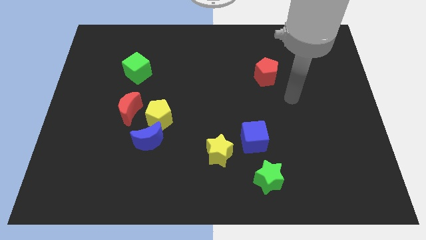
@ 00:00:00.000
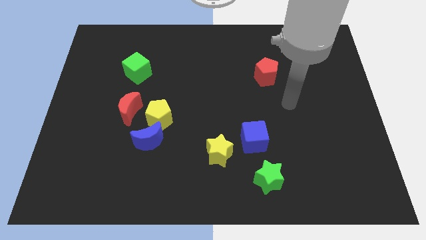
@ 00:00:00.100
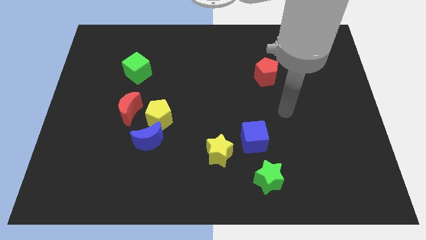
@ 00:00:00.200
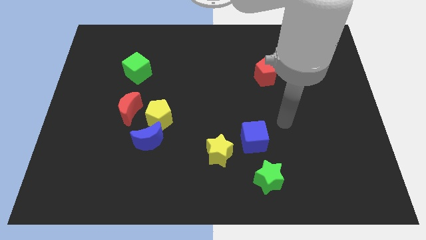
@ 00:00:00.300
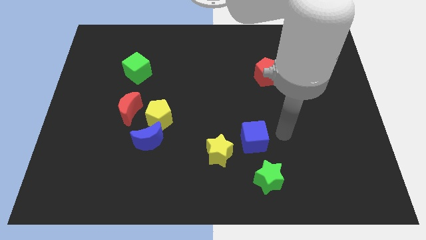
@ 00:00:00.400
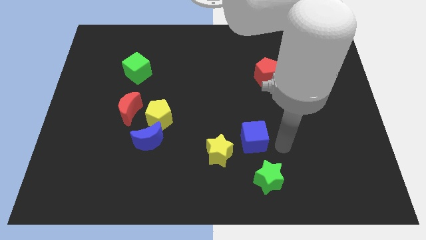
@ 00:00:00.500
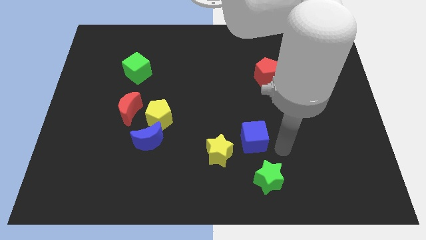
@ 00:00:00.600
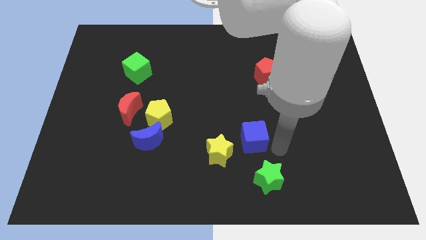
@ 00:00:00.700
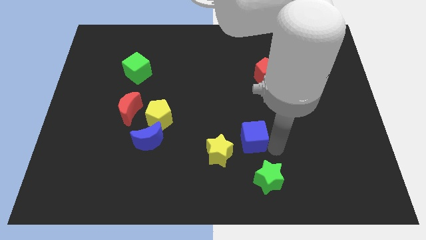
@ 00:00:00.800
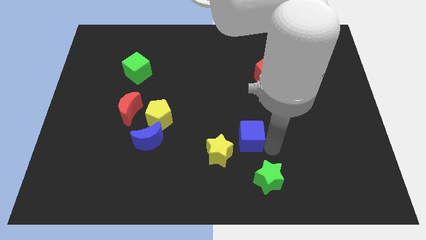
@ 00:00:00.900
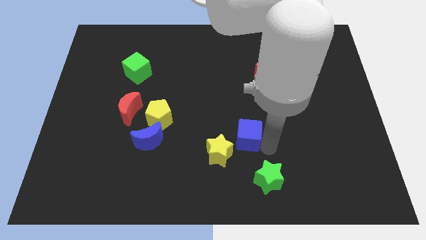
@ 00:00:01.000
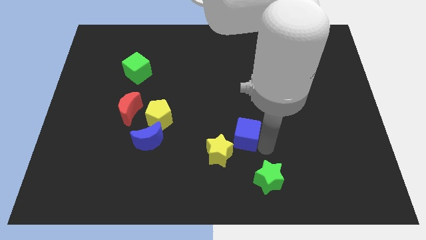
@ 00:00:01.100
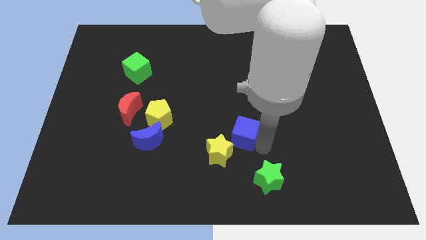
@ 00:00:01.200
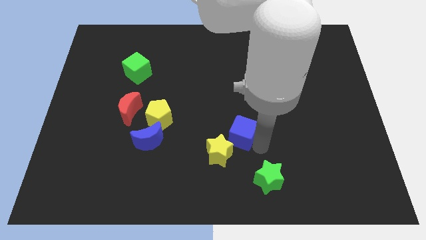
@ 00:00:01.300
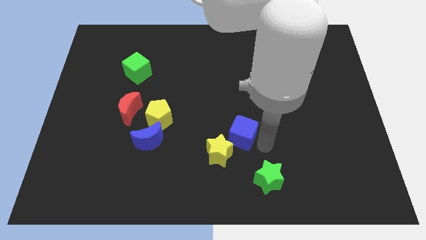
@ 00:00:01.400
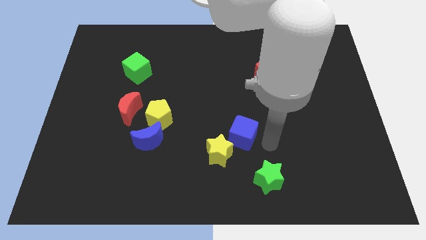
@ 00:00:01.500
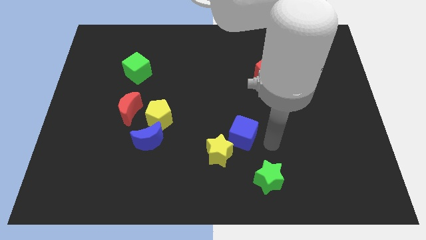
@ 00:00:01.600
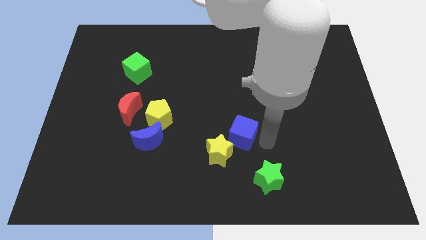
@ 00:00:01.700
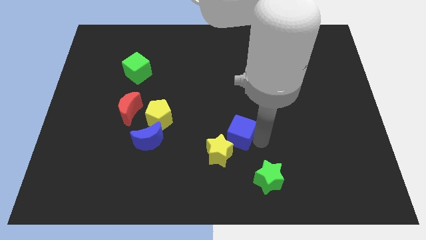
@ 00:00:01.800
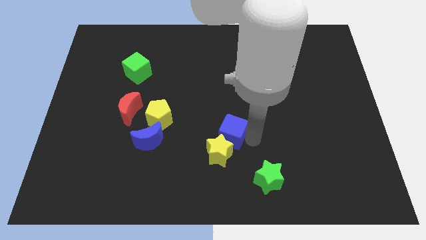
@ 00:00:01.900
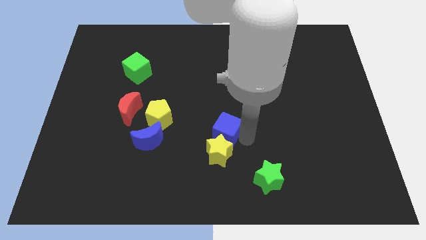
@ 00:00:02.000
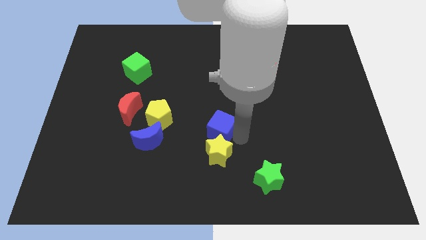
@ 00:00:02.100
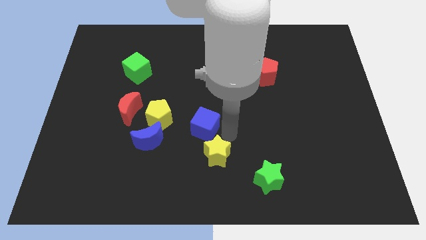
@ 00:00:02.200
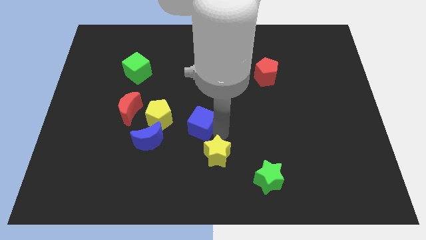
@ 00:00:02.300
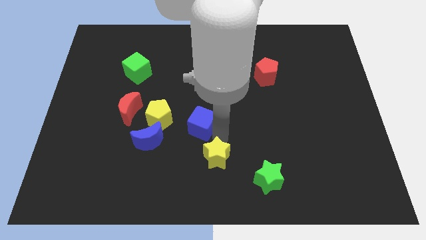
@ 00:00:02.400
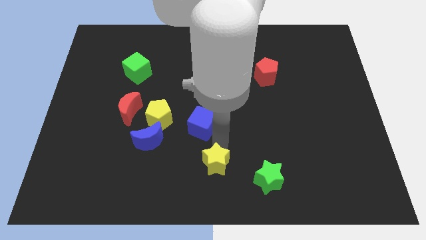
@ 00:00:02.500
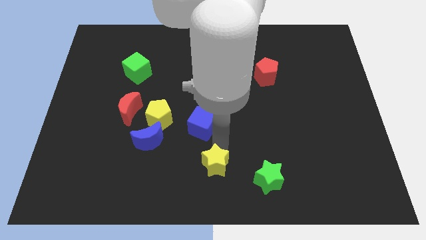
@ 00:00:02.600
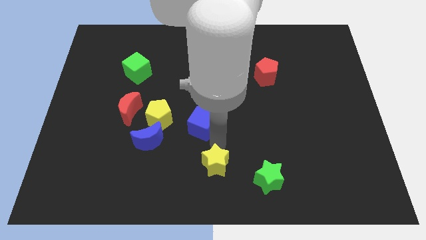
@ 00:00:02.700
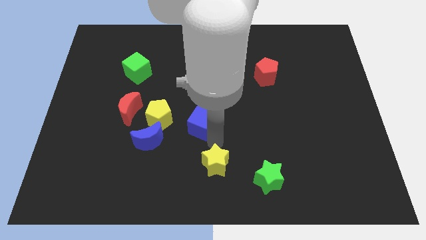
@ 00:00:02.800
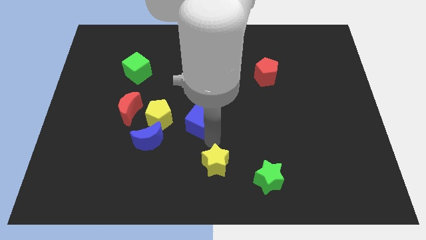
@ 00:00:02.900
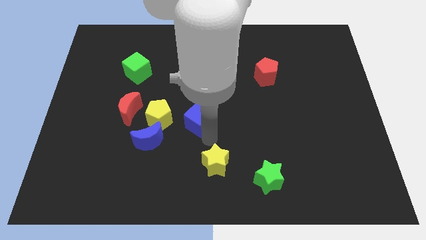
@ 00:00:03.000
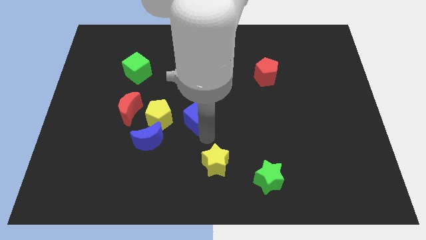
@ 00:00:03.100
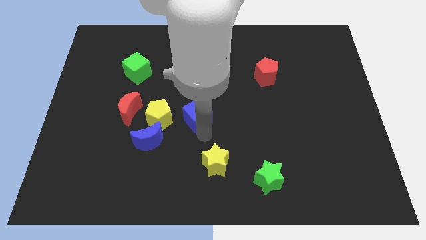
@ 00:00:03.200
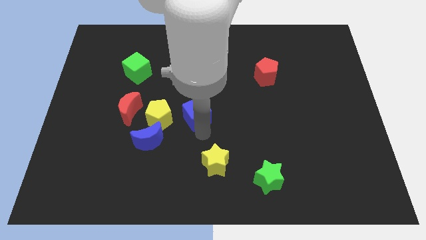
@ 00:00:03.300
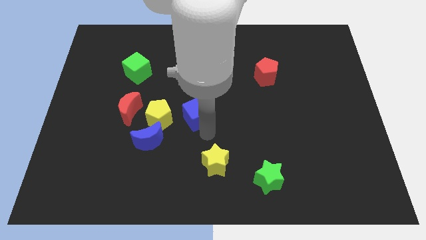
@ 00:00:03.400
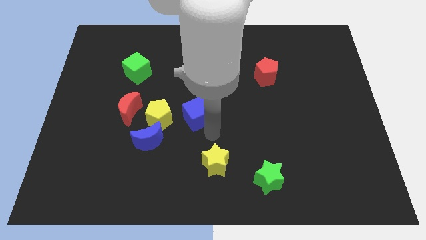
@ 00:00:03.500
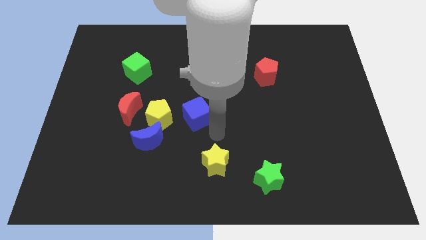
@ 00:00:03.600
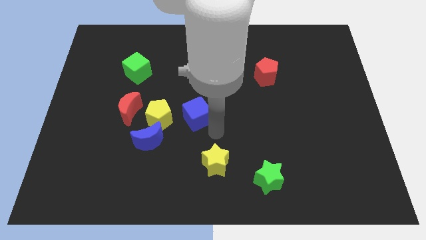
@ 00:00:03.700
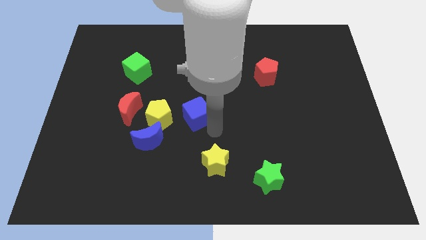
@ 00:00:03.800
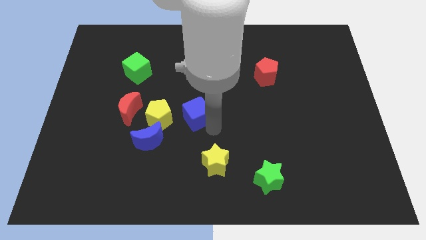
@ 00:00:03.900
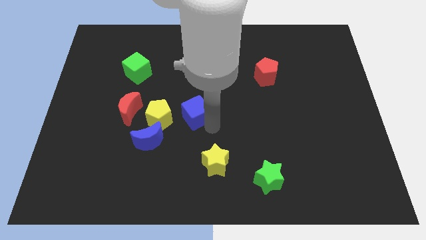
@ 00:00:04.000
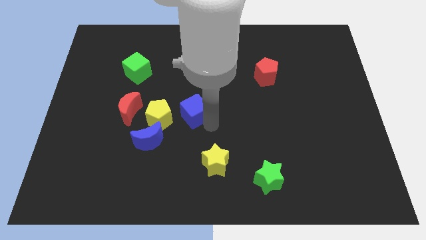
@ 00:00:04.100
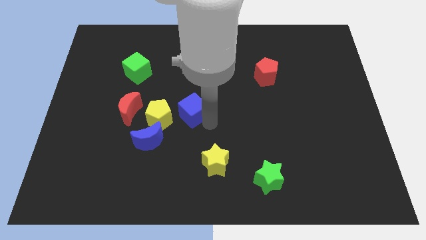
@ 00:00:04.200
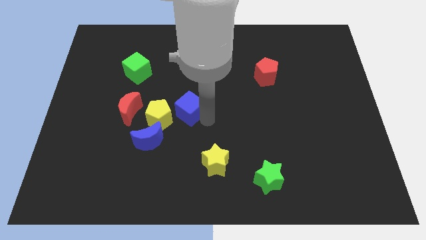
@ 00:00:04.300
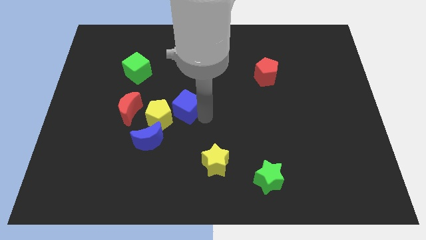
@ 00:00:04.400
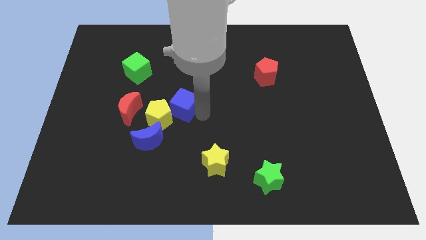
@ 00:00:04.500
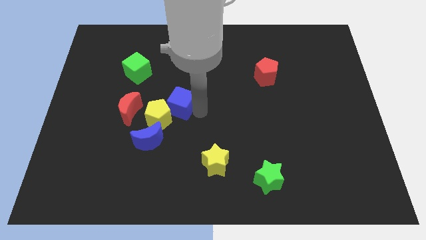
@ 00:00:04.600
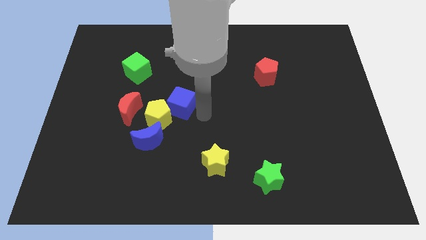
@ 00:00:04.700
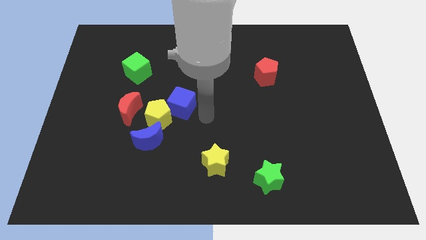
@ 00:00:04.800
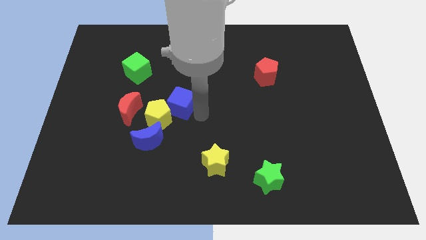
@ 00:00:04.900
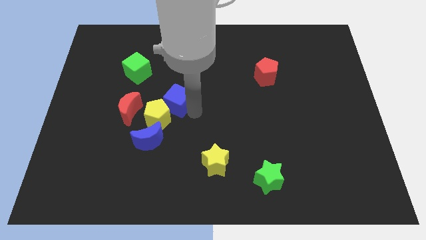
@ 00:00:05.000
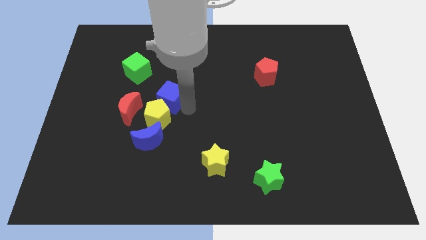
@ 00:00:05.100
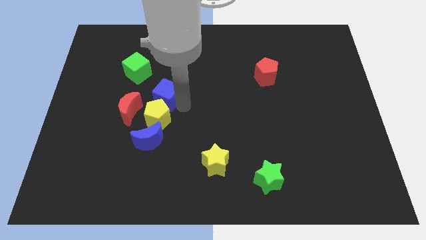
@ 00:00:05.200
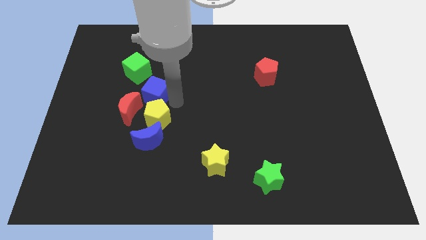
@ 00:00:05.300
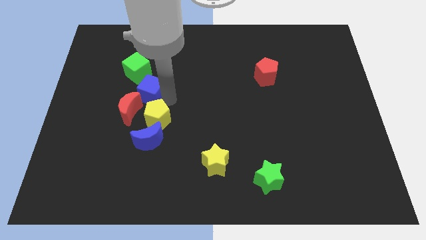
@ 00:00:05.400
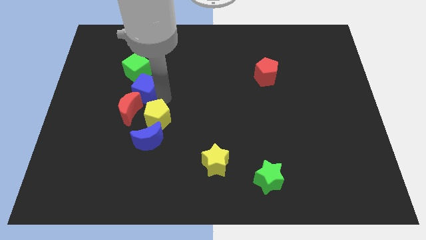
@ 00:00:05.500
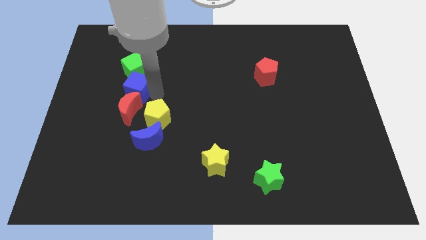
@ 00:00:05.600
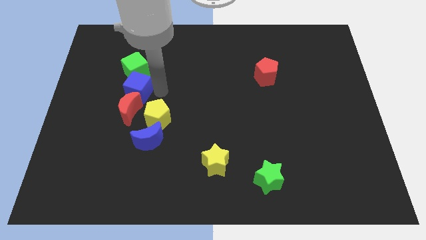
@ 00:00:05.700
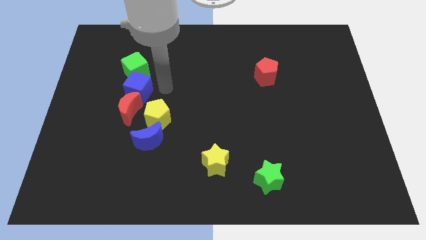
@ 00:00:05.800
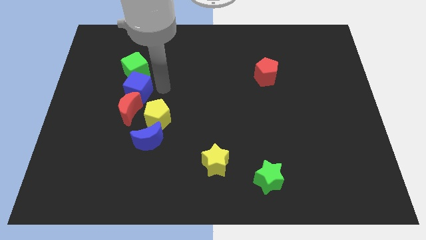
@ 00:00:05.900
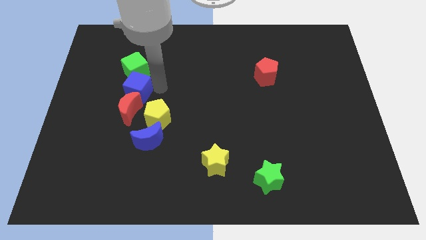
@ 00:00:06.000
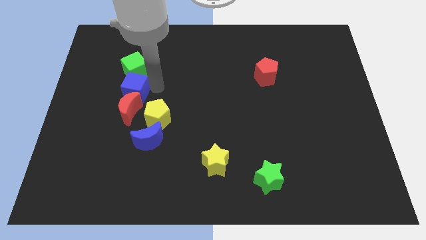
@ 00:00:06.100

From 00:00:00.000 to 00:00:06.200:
slide the blue cube to the top left of the red moon

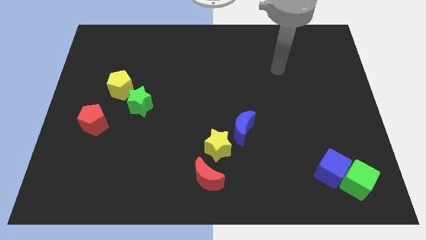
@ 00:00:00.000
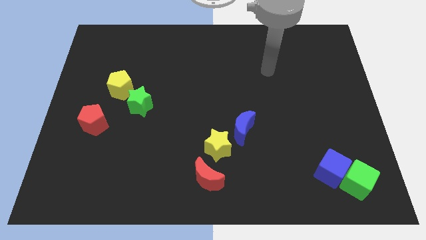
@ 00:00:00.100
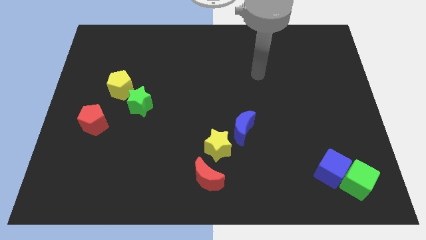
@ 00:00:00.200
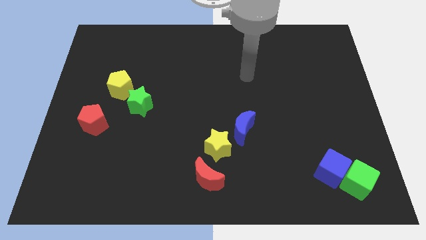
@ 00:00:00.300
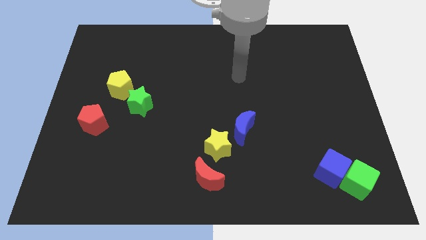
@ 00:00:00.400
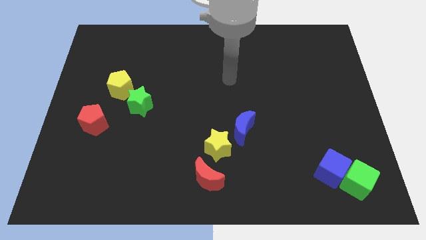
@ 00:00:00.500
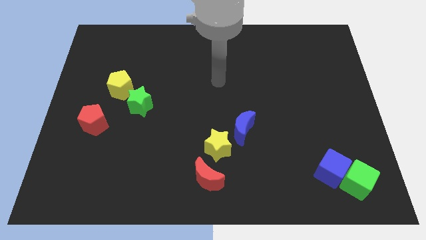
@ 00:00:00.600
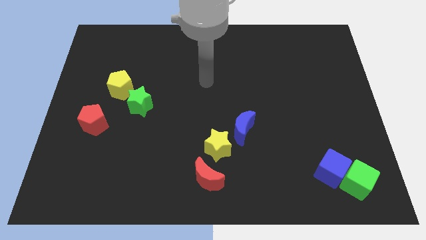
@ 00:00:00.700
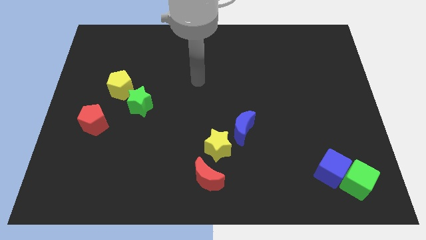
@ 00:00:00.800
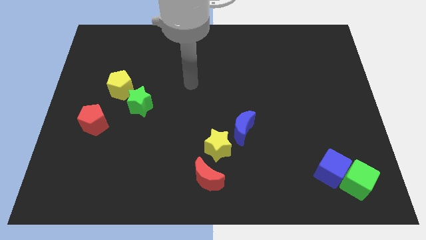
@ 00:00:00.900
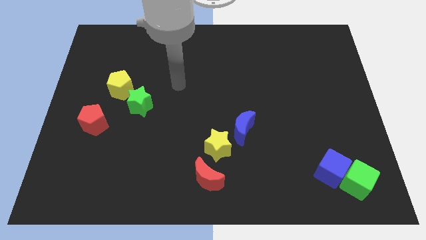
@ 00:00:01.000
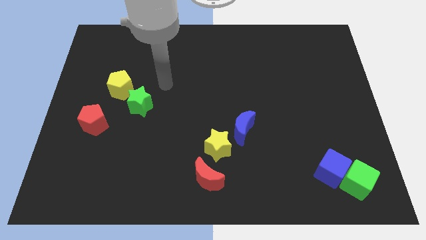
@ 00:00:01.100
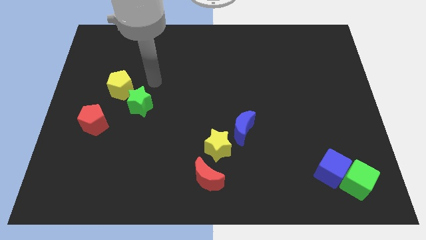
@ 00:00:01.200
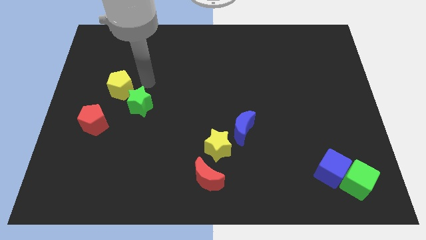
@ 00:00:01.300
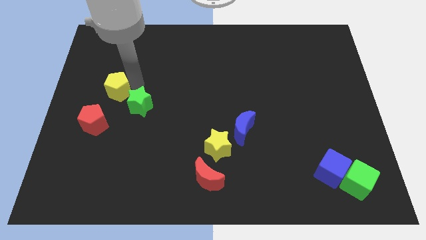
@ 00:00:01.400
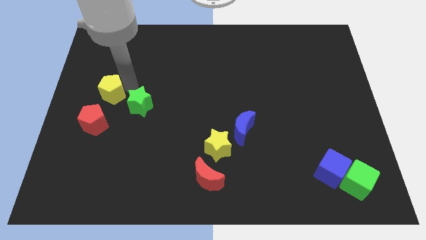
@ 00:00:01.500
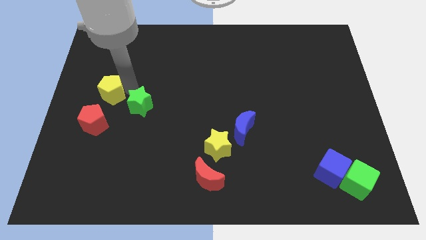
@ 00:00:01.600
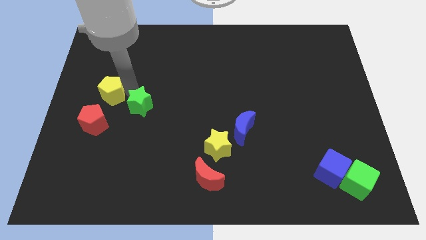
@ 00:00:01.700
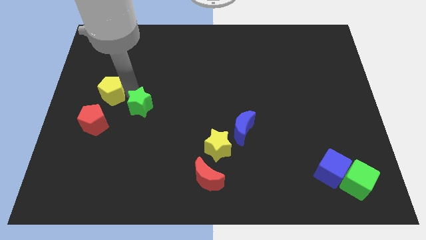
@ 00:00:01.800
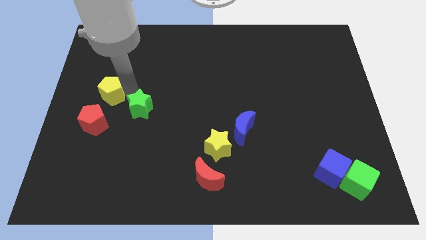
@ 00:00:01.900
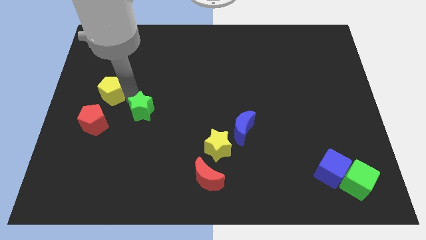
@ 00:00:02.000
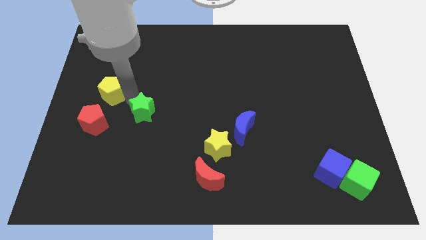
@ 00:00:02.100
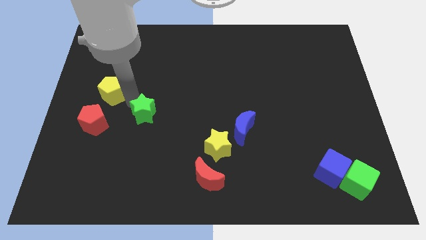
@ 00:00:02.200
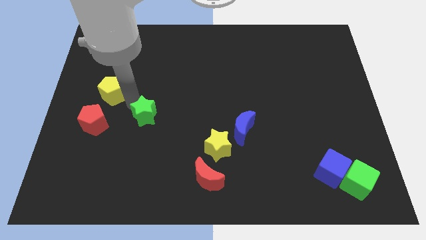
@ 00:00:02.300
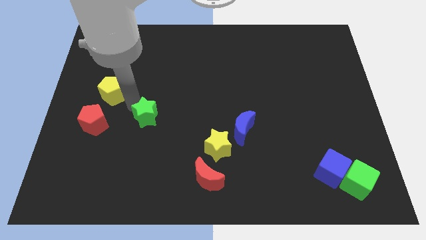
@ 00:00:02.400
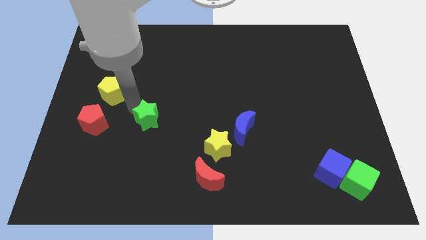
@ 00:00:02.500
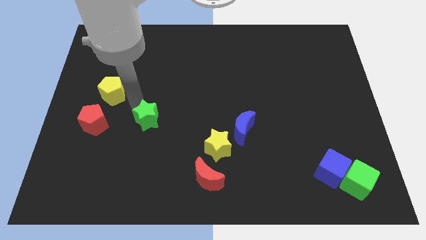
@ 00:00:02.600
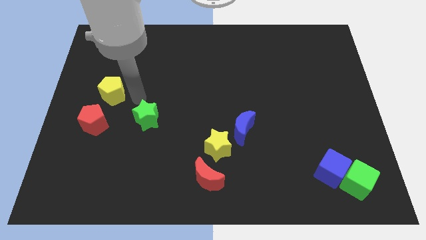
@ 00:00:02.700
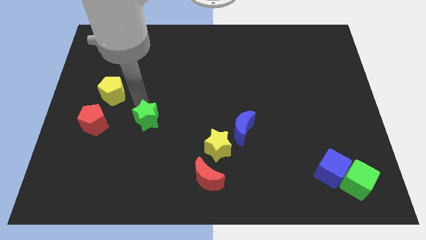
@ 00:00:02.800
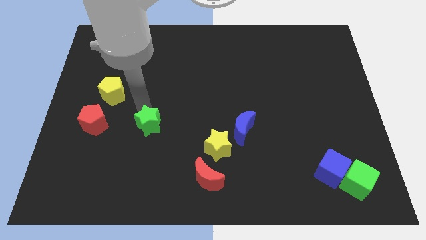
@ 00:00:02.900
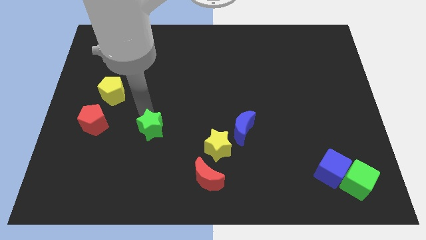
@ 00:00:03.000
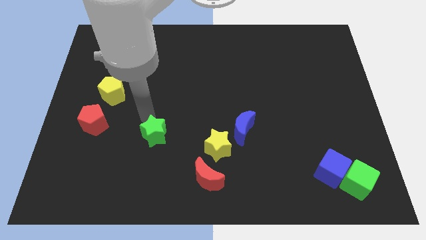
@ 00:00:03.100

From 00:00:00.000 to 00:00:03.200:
slide the green star to the left of the yellow star
